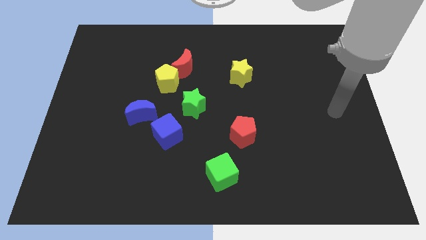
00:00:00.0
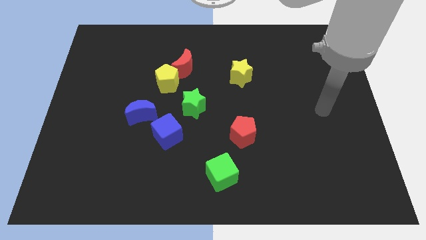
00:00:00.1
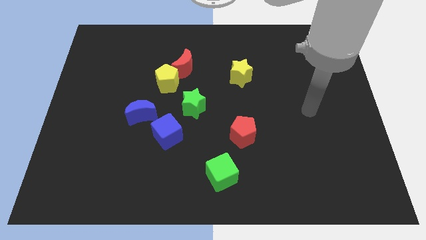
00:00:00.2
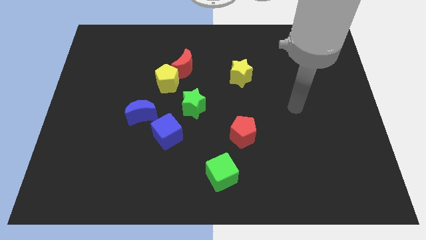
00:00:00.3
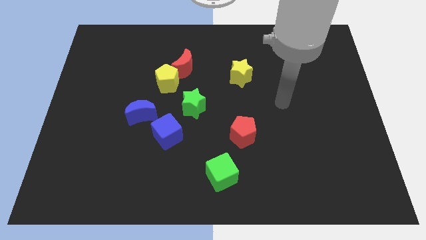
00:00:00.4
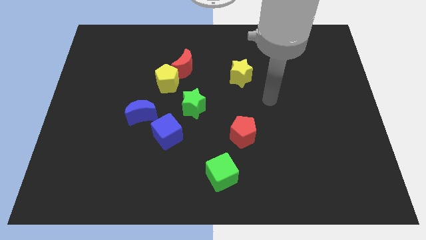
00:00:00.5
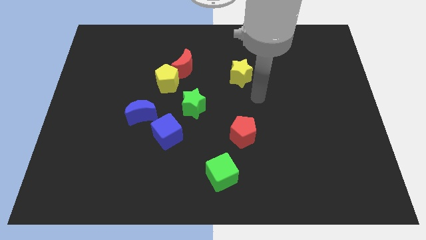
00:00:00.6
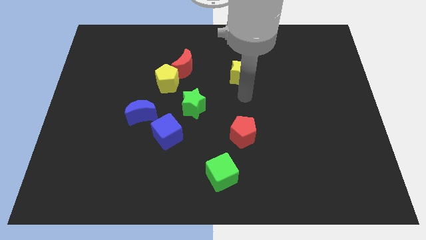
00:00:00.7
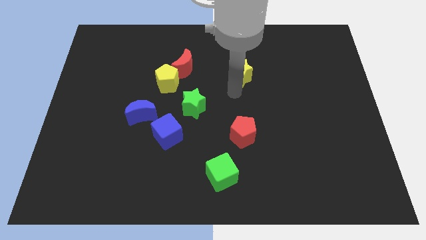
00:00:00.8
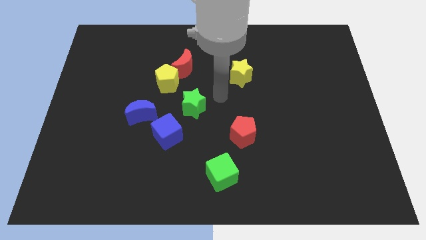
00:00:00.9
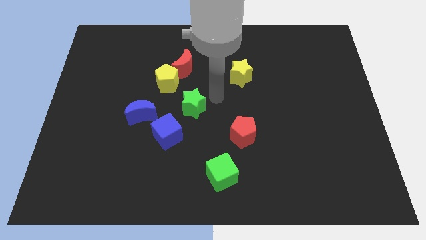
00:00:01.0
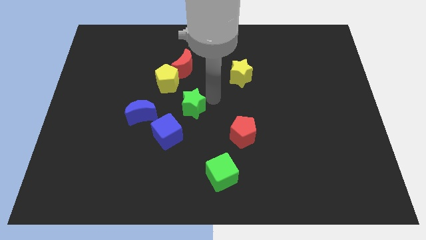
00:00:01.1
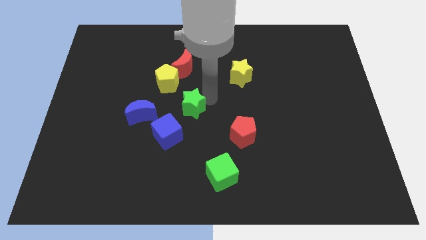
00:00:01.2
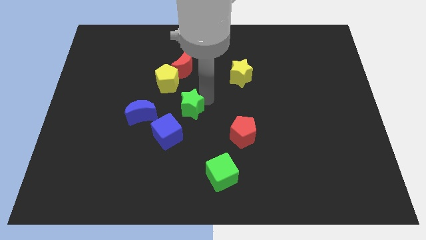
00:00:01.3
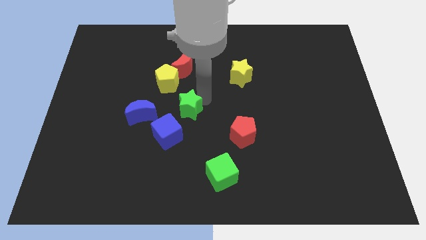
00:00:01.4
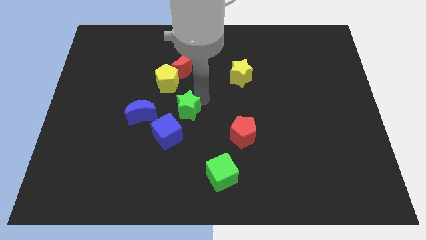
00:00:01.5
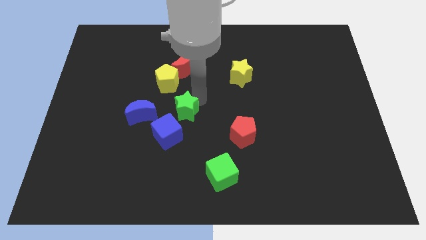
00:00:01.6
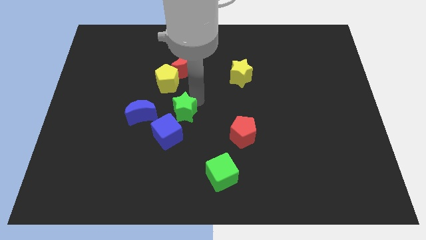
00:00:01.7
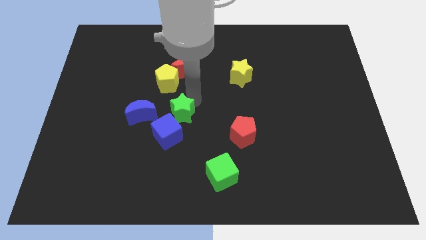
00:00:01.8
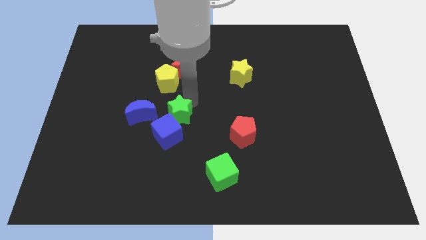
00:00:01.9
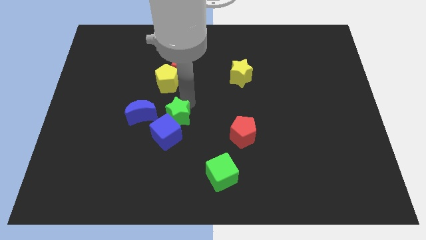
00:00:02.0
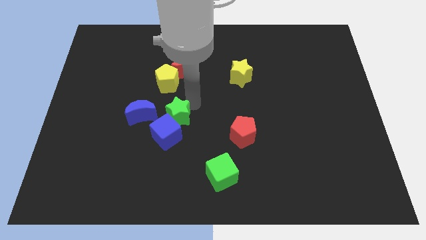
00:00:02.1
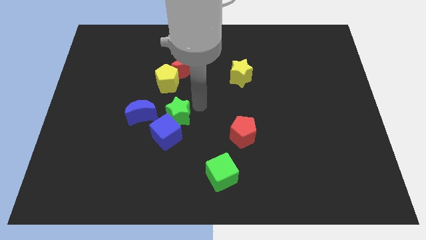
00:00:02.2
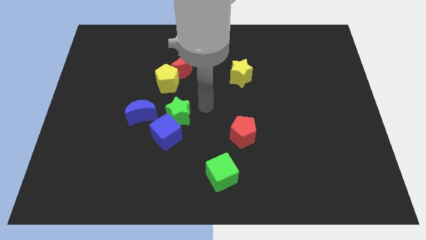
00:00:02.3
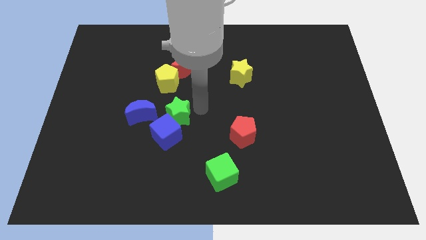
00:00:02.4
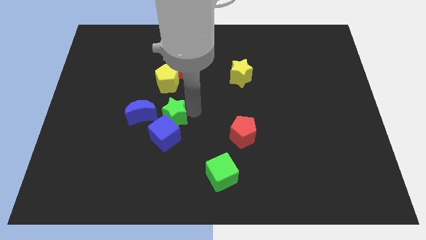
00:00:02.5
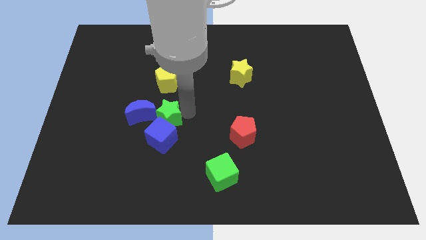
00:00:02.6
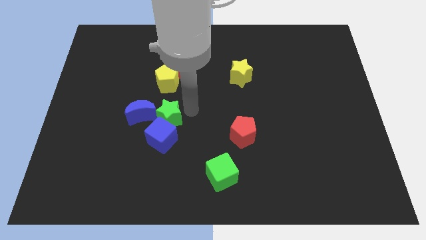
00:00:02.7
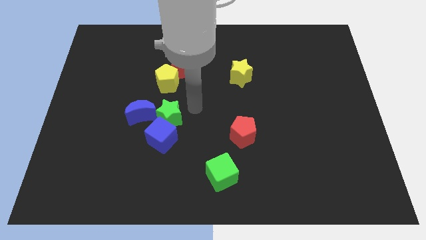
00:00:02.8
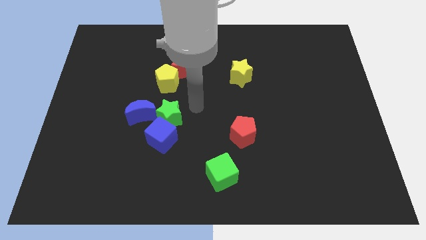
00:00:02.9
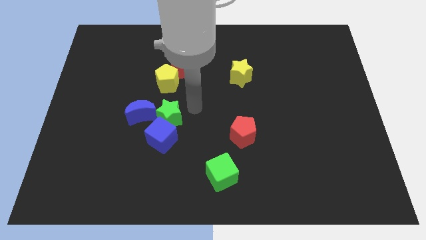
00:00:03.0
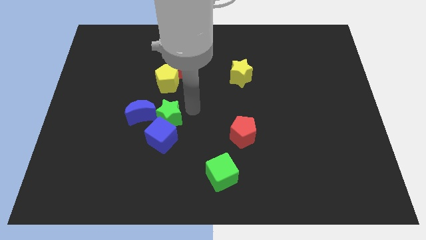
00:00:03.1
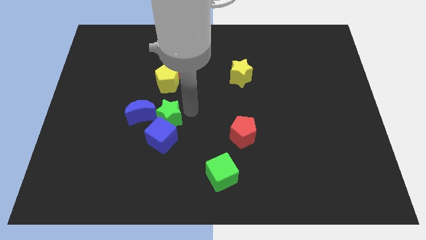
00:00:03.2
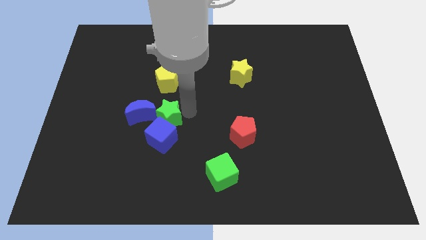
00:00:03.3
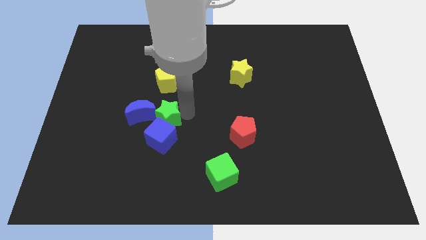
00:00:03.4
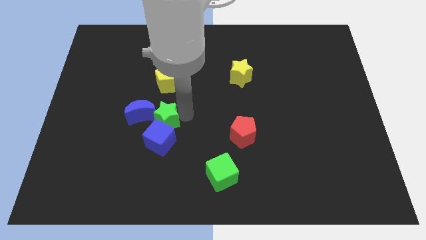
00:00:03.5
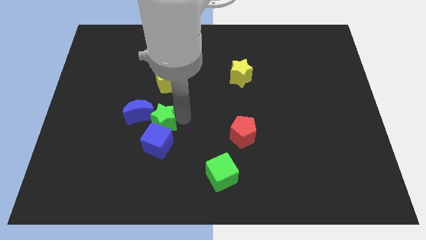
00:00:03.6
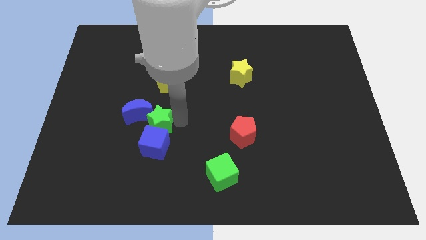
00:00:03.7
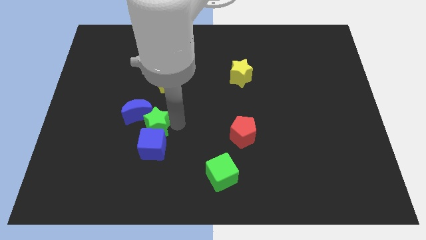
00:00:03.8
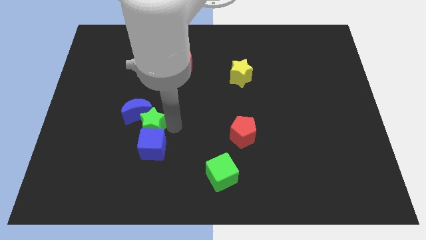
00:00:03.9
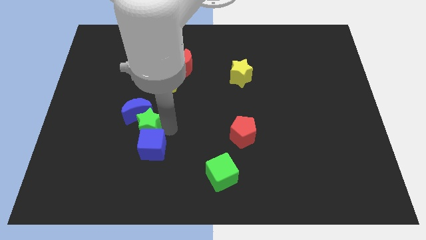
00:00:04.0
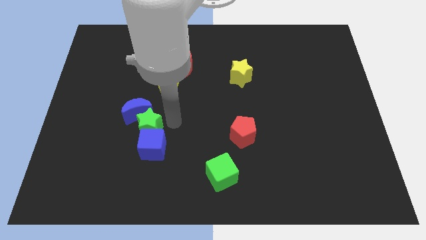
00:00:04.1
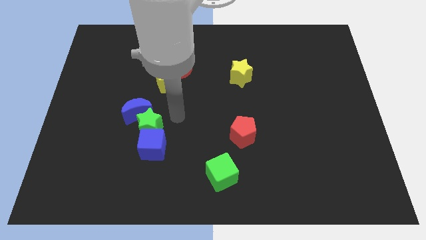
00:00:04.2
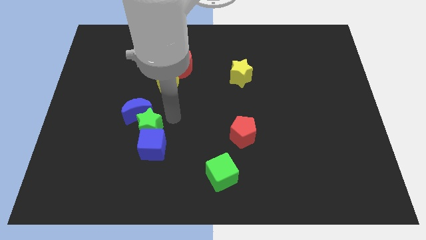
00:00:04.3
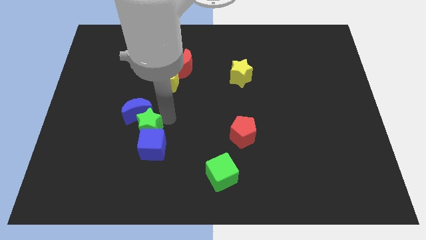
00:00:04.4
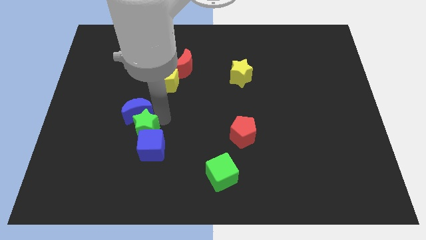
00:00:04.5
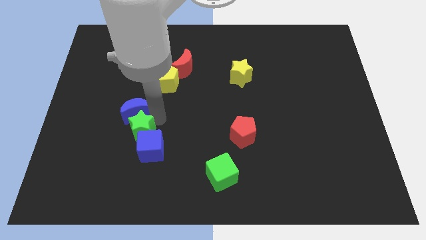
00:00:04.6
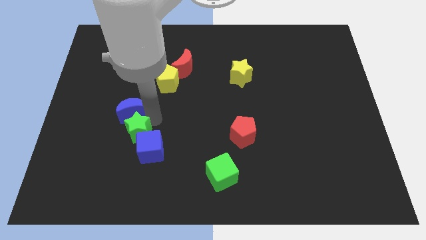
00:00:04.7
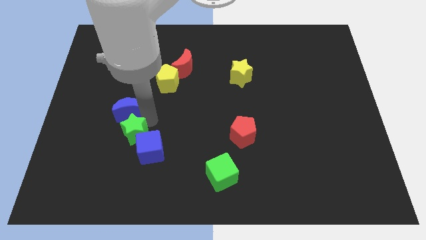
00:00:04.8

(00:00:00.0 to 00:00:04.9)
put the green star to the left side of the blue cube

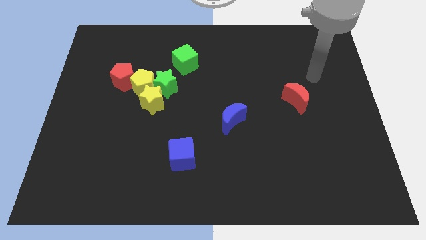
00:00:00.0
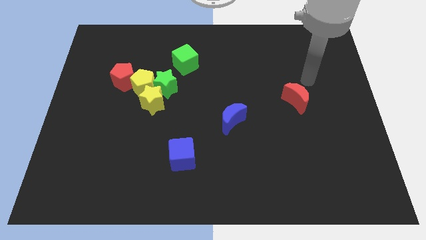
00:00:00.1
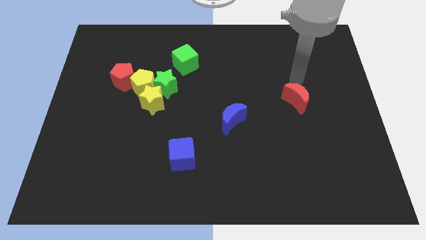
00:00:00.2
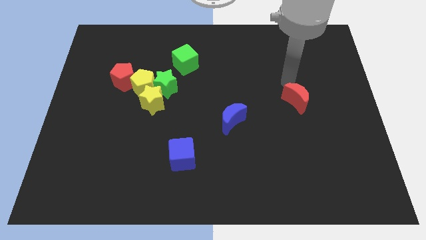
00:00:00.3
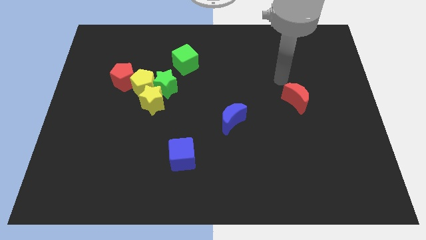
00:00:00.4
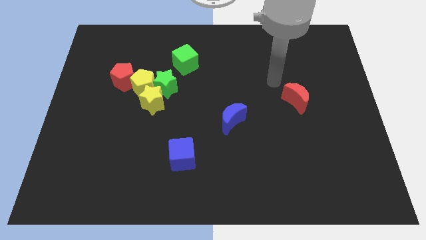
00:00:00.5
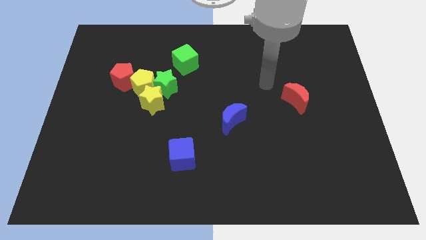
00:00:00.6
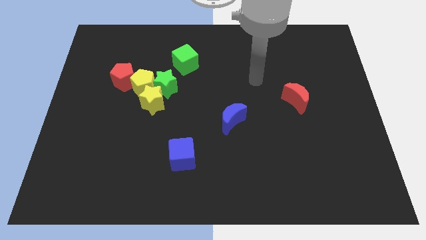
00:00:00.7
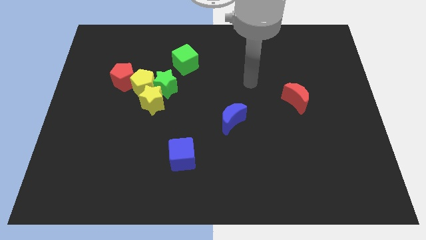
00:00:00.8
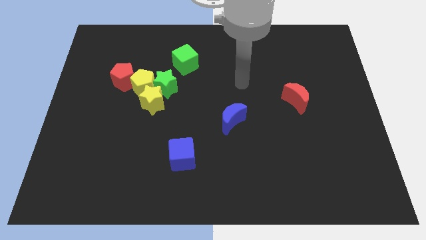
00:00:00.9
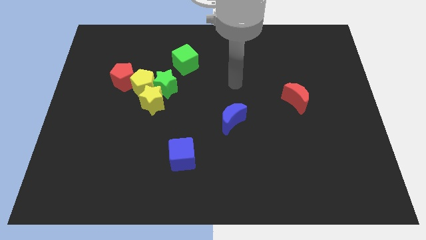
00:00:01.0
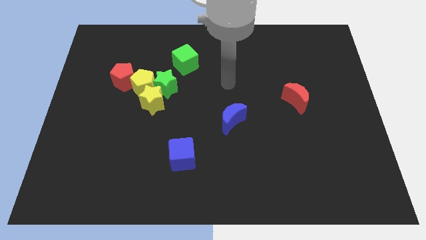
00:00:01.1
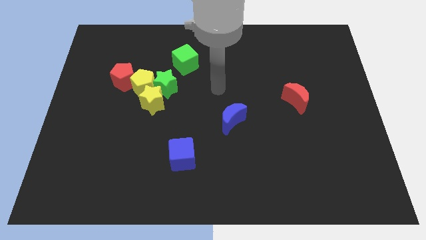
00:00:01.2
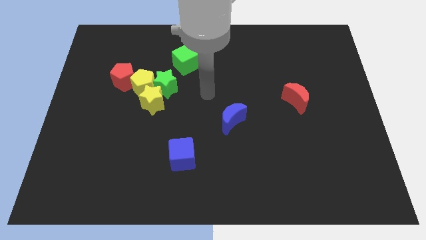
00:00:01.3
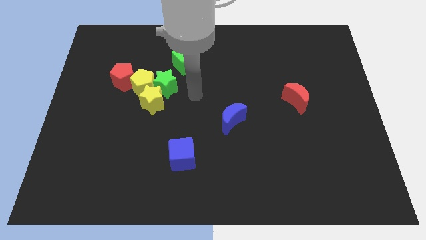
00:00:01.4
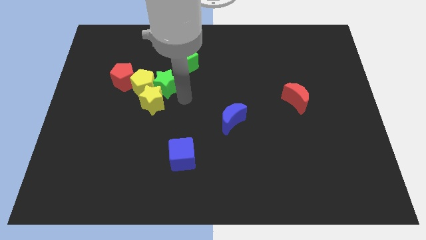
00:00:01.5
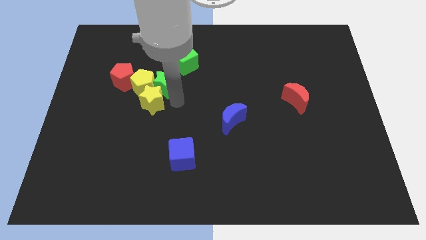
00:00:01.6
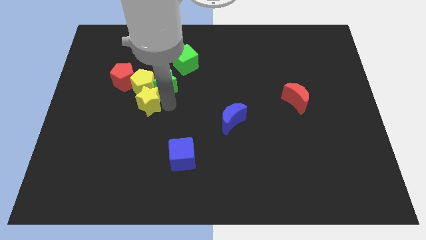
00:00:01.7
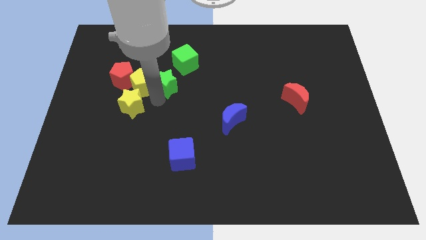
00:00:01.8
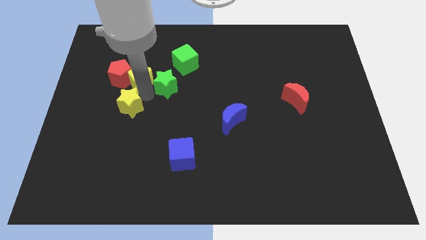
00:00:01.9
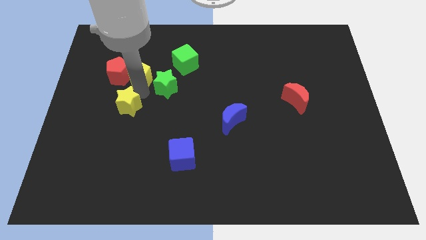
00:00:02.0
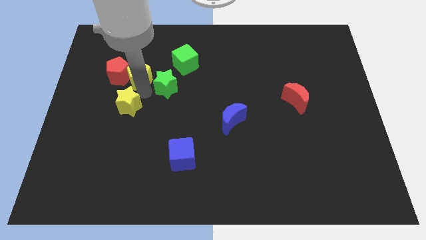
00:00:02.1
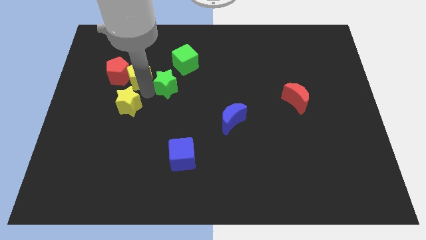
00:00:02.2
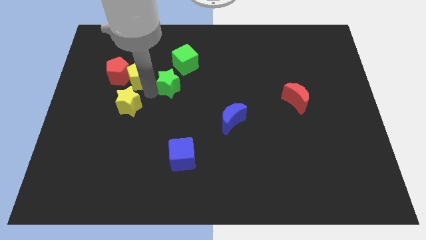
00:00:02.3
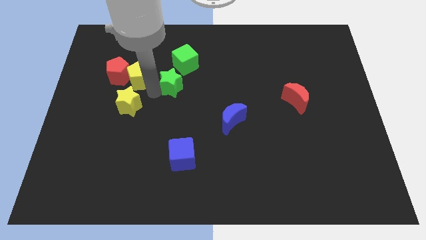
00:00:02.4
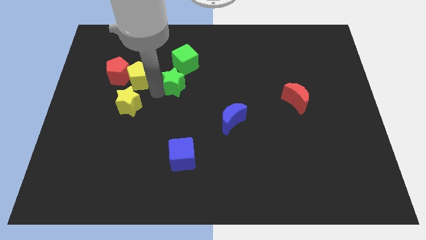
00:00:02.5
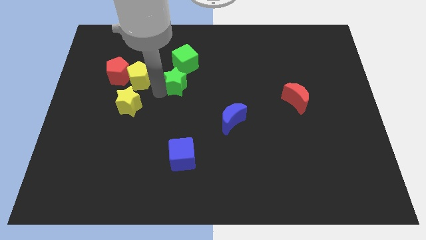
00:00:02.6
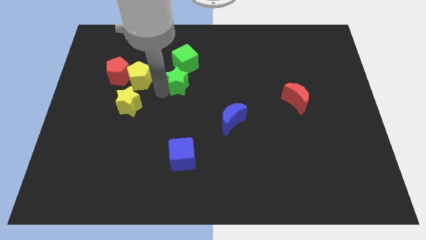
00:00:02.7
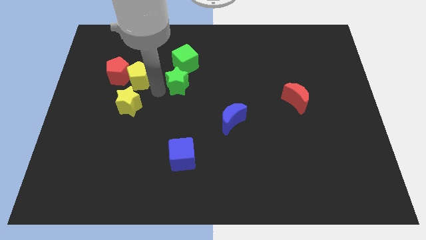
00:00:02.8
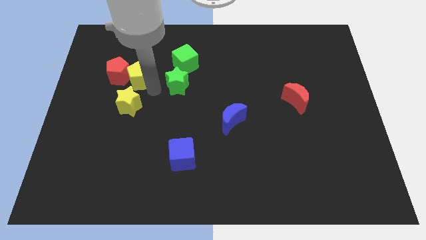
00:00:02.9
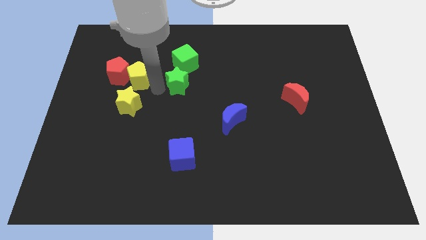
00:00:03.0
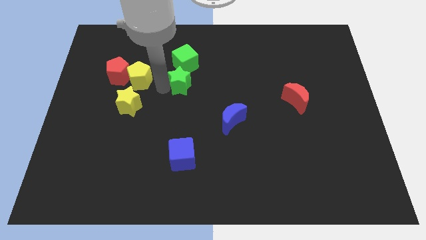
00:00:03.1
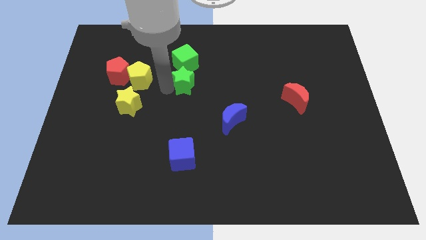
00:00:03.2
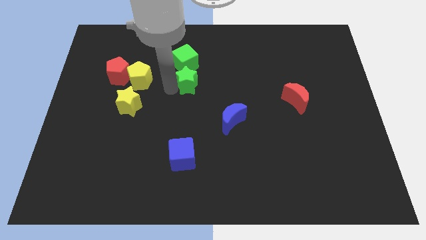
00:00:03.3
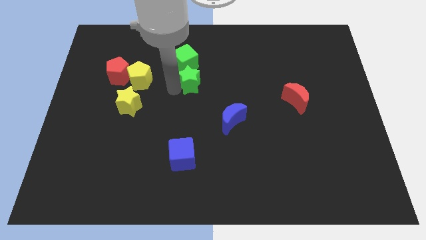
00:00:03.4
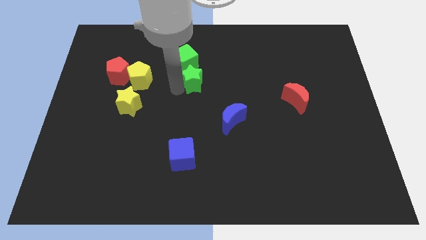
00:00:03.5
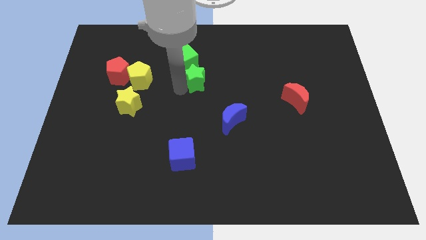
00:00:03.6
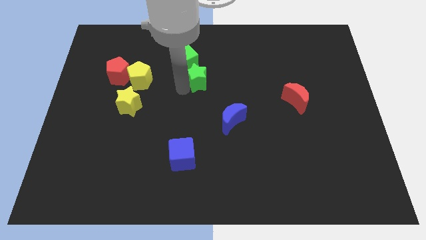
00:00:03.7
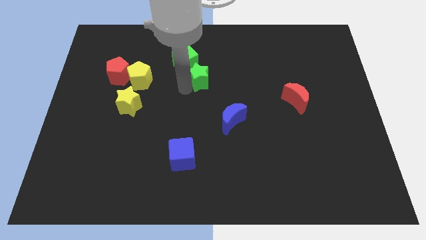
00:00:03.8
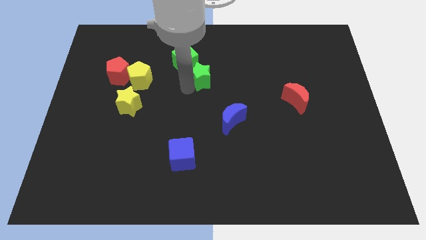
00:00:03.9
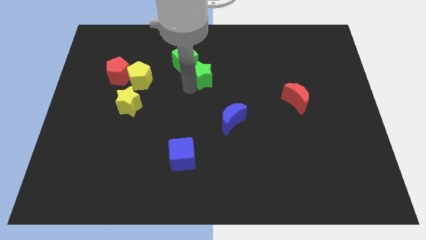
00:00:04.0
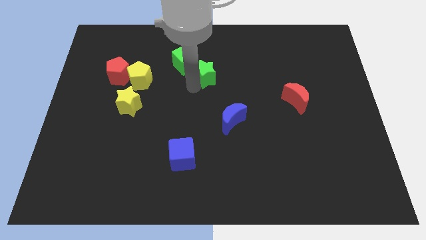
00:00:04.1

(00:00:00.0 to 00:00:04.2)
move the green star right of the green cube
